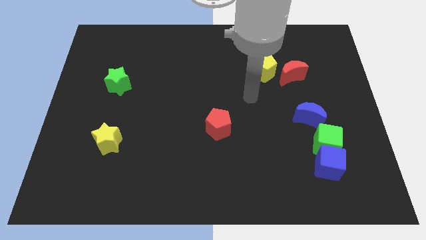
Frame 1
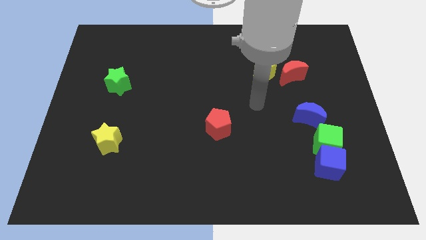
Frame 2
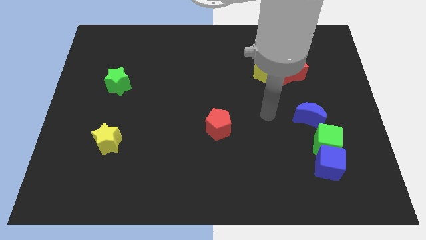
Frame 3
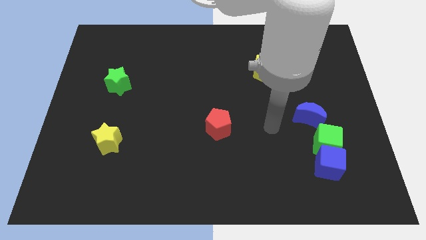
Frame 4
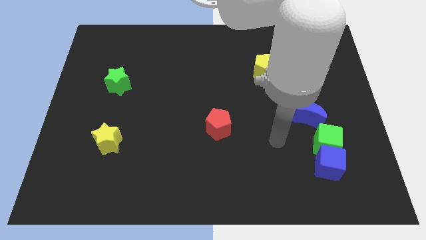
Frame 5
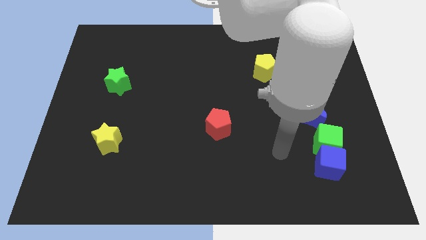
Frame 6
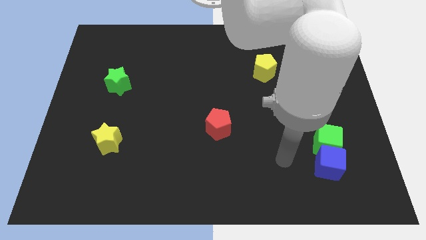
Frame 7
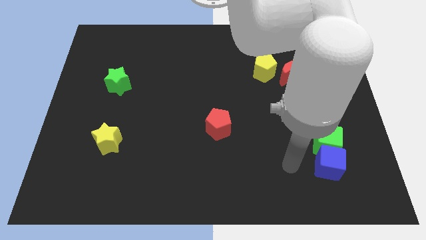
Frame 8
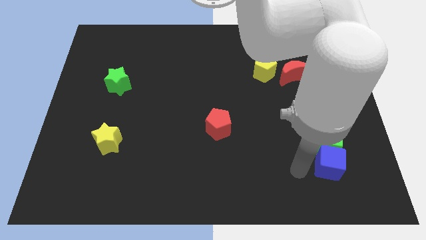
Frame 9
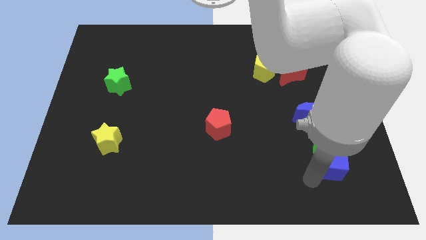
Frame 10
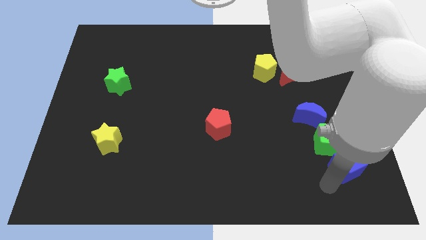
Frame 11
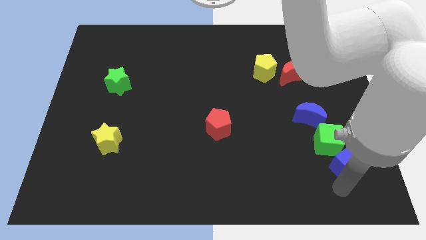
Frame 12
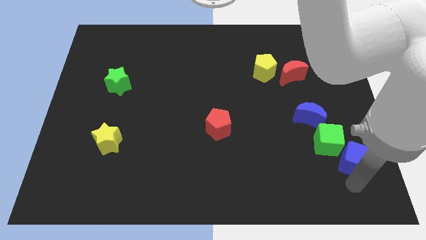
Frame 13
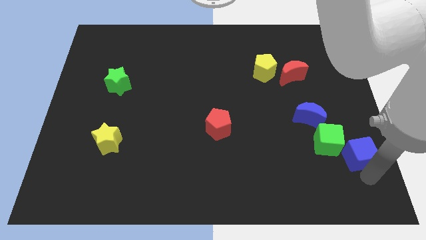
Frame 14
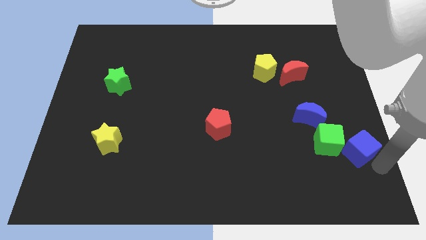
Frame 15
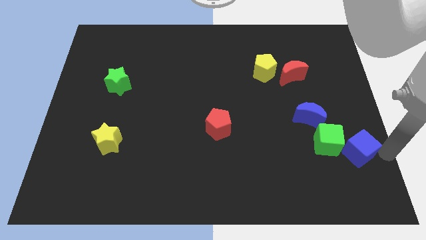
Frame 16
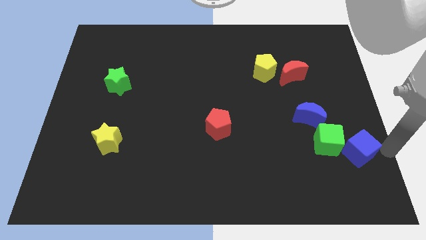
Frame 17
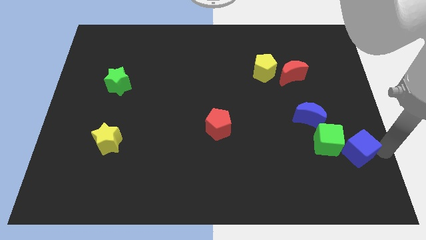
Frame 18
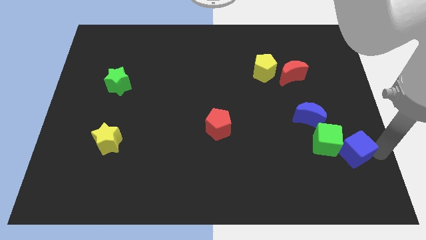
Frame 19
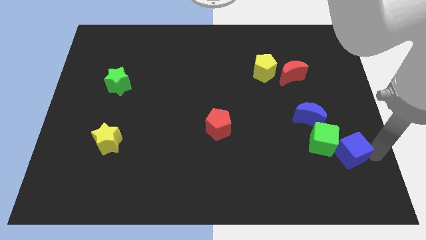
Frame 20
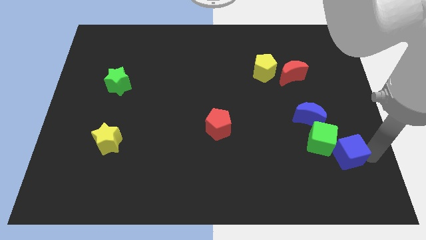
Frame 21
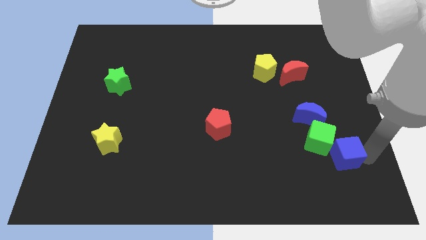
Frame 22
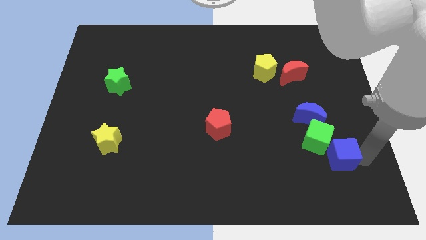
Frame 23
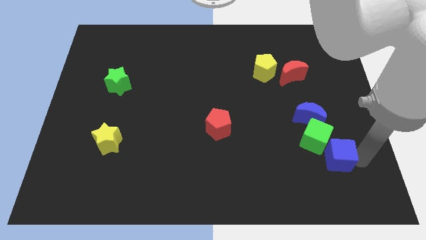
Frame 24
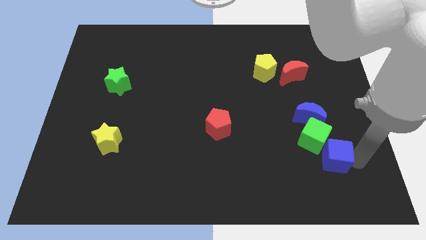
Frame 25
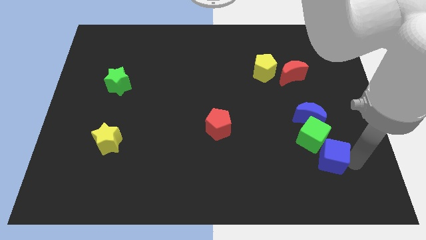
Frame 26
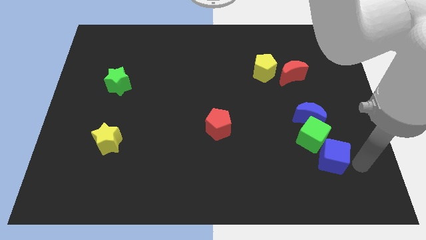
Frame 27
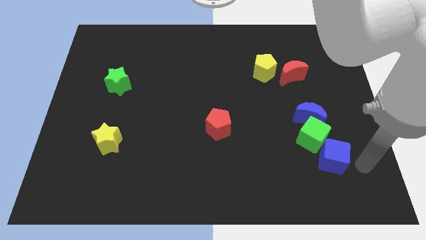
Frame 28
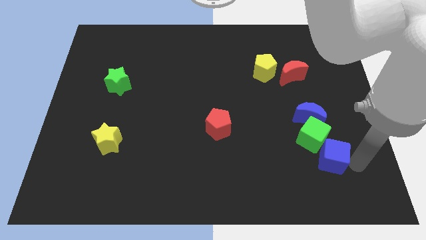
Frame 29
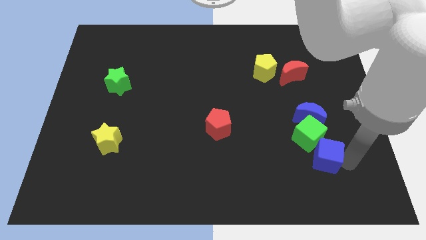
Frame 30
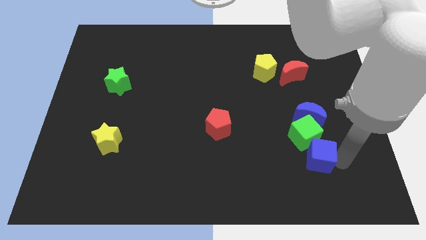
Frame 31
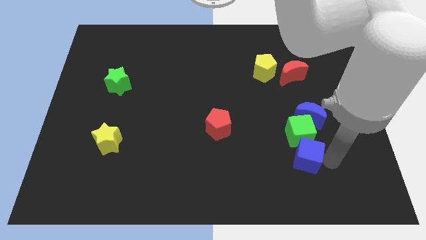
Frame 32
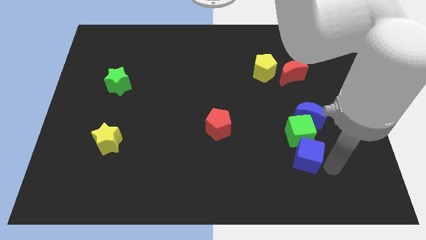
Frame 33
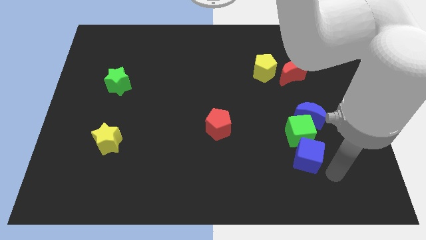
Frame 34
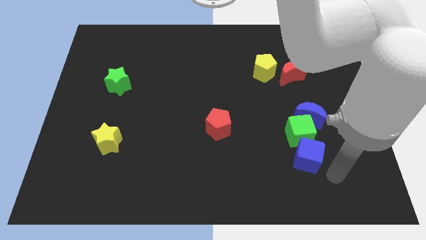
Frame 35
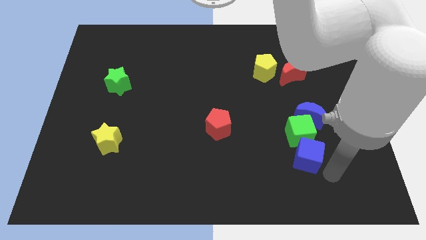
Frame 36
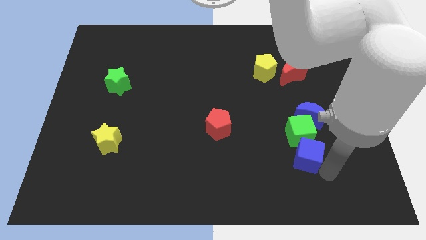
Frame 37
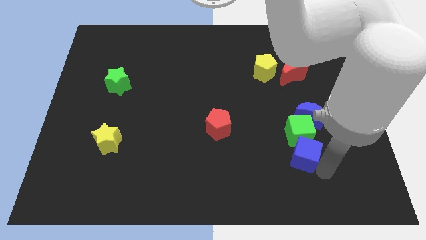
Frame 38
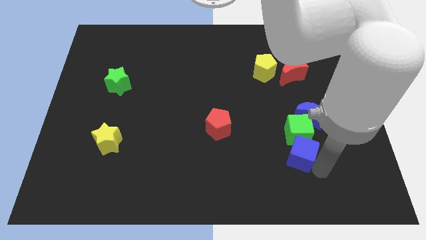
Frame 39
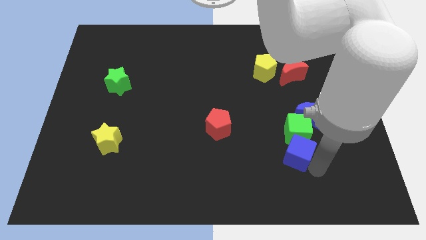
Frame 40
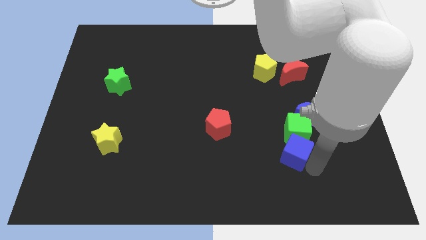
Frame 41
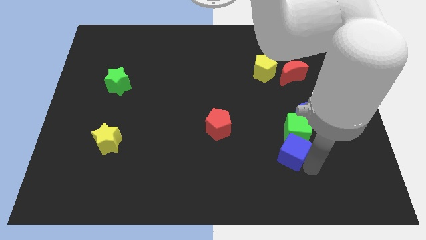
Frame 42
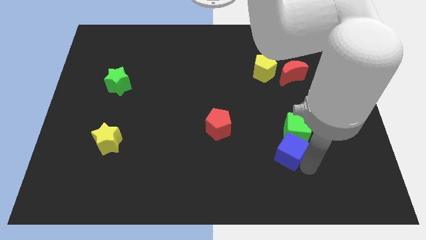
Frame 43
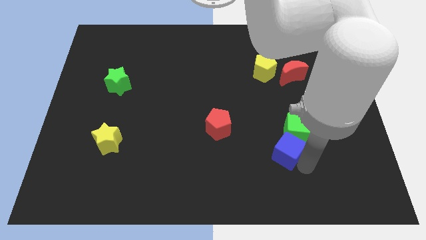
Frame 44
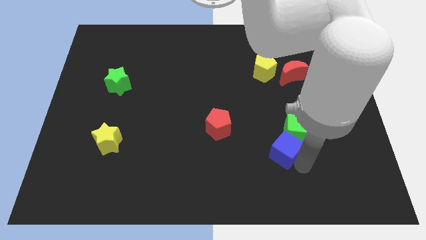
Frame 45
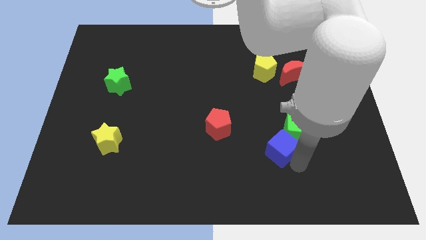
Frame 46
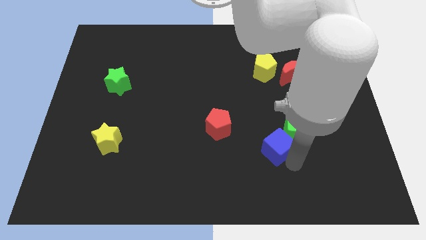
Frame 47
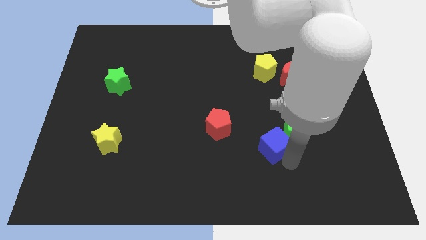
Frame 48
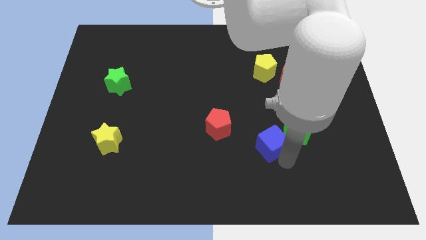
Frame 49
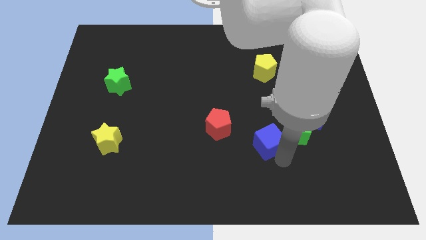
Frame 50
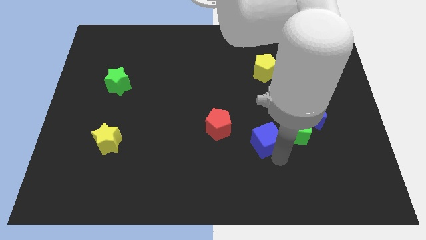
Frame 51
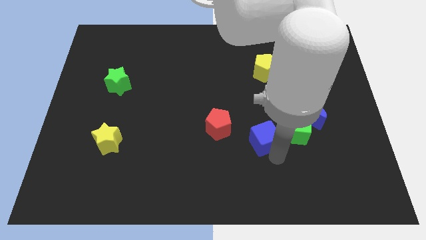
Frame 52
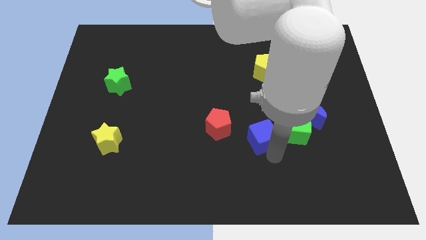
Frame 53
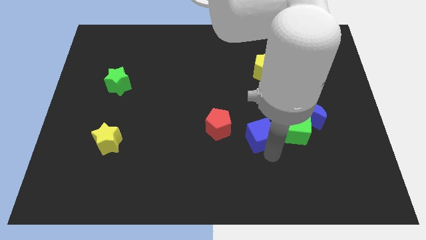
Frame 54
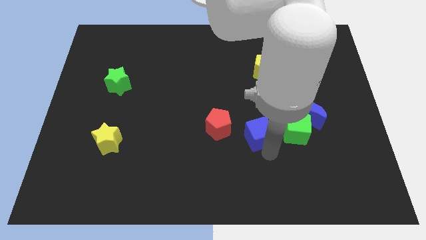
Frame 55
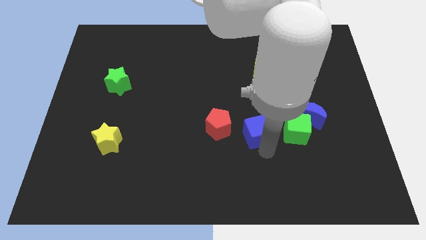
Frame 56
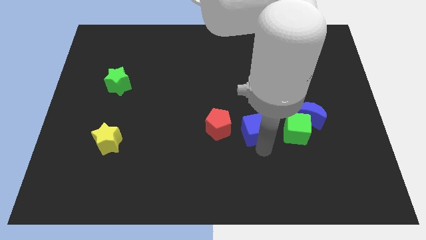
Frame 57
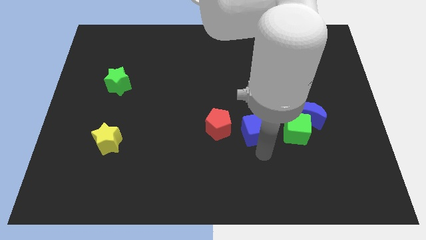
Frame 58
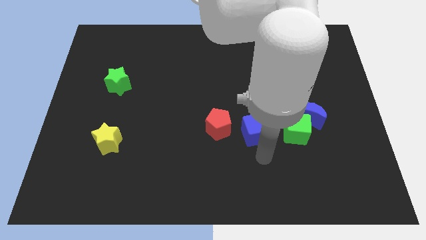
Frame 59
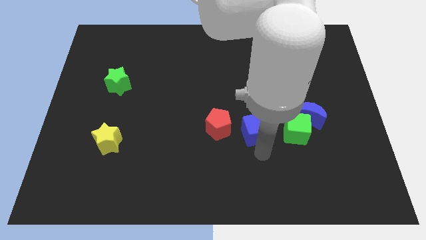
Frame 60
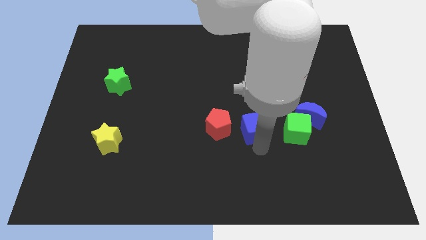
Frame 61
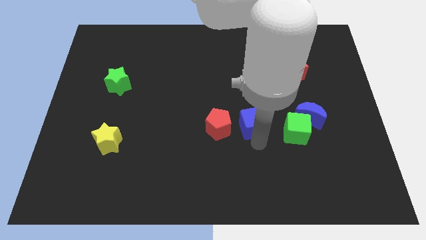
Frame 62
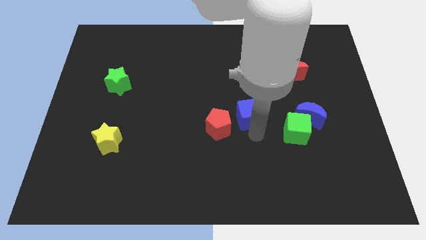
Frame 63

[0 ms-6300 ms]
move the blue cube diagonally upwards and to the left

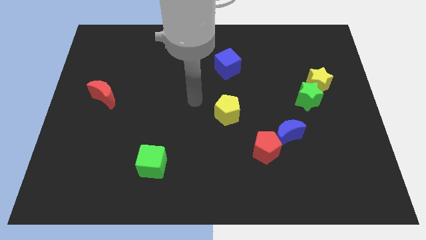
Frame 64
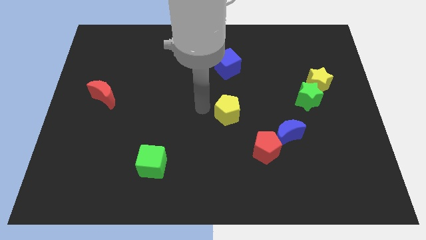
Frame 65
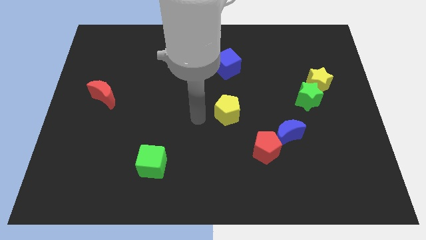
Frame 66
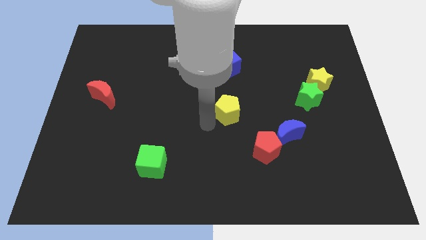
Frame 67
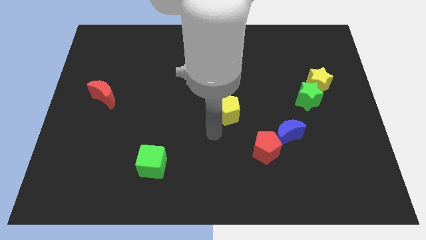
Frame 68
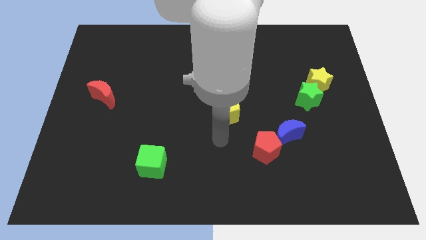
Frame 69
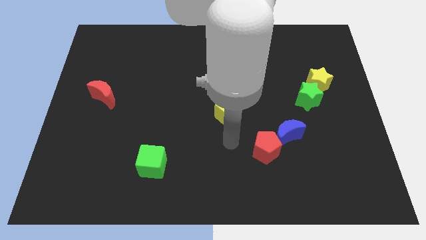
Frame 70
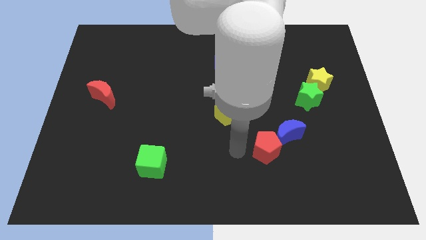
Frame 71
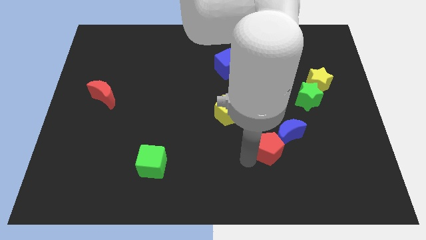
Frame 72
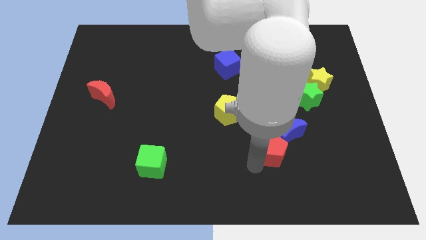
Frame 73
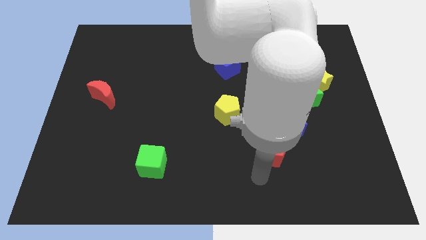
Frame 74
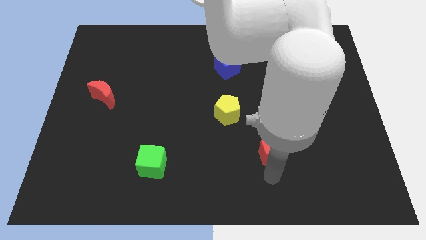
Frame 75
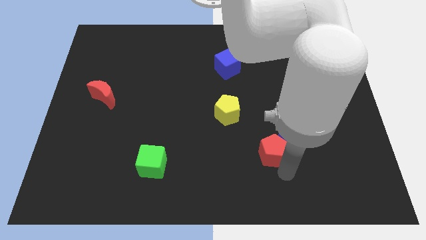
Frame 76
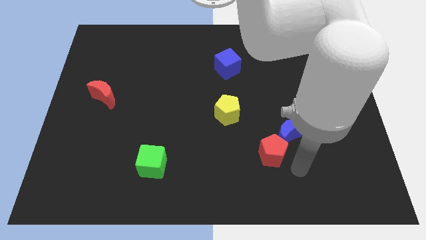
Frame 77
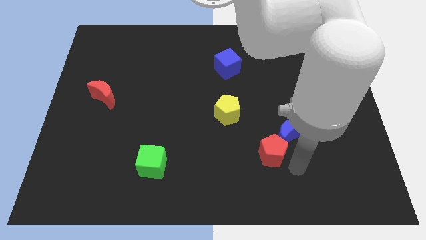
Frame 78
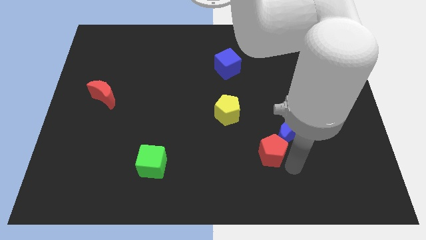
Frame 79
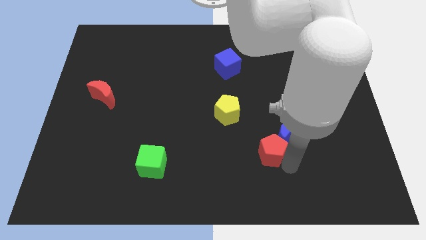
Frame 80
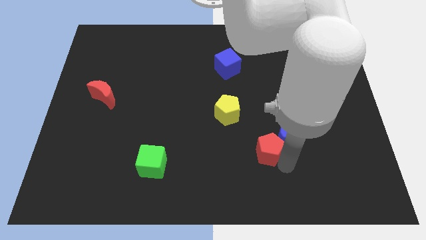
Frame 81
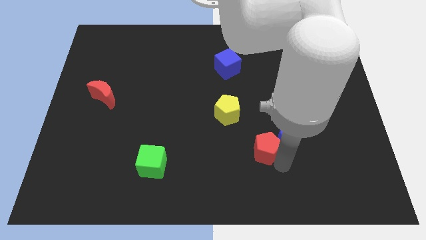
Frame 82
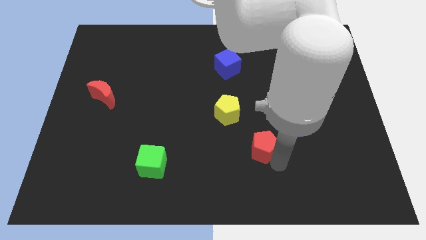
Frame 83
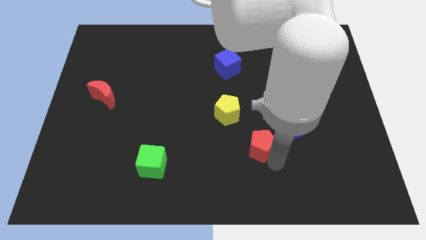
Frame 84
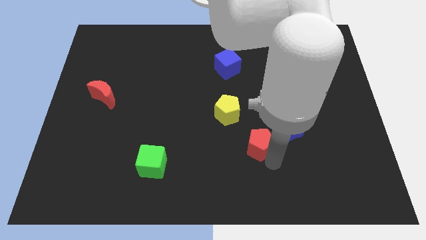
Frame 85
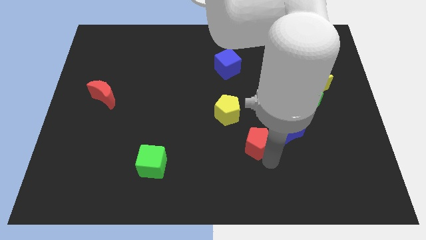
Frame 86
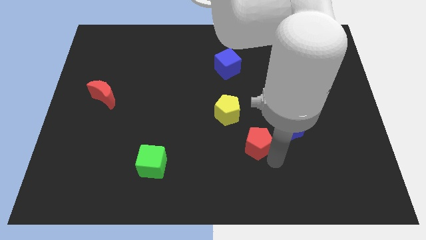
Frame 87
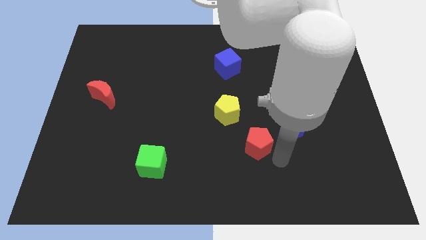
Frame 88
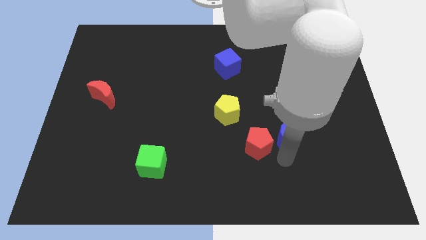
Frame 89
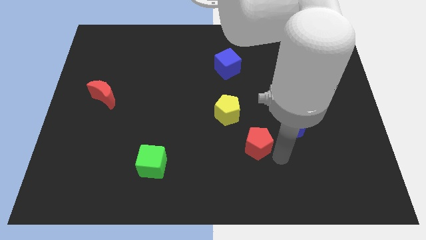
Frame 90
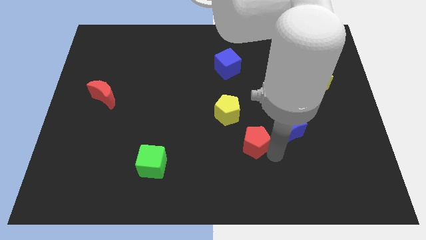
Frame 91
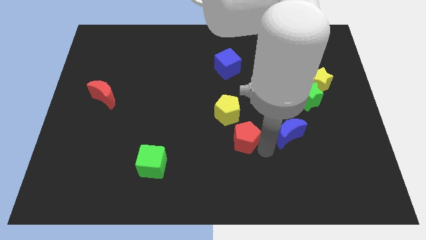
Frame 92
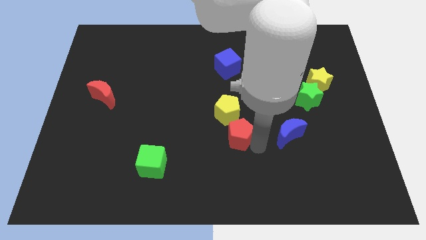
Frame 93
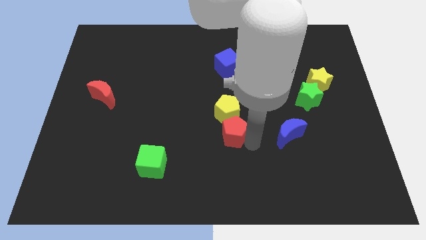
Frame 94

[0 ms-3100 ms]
slide the red pentagon a bit up and left diagonally
